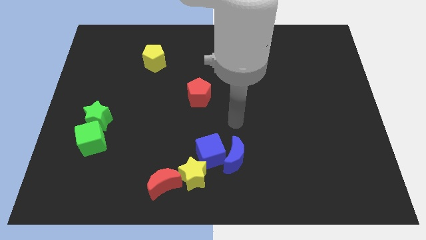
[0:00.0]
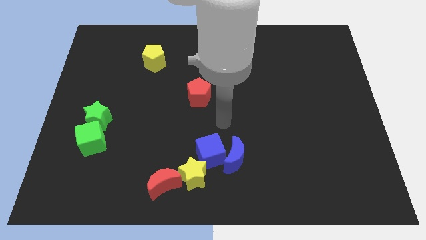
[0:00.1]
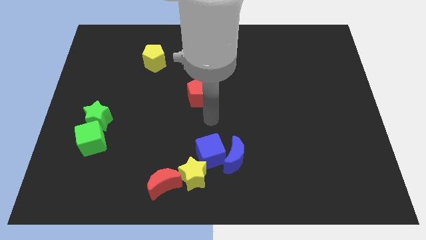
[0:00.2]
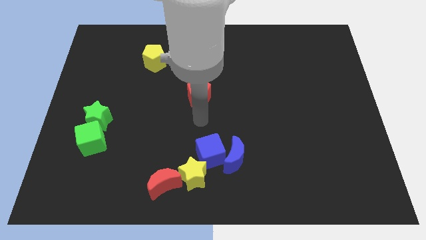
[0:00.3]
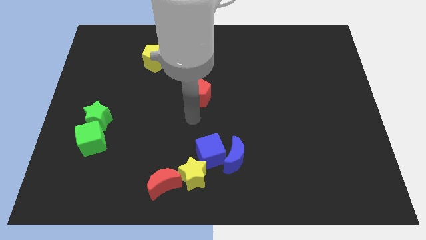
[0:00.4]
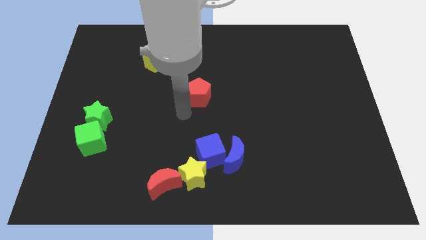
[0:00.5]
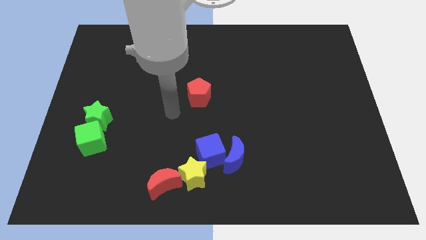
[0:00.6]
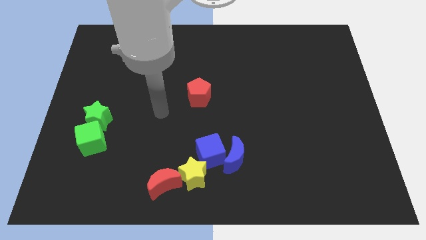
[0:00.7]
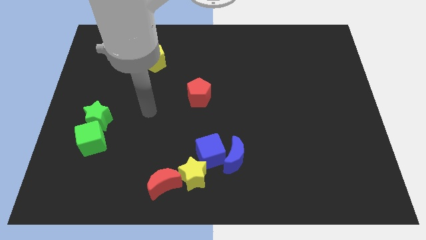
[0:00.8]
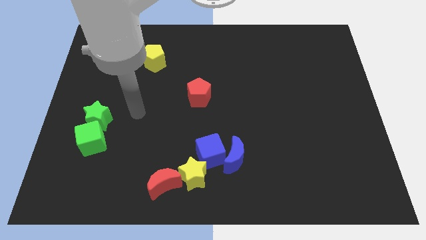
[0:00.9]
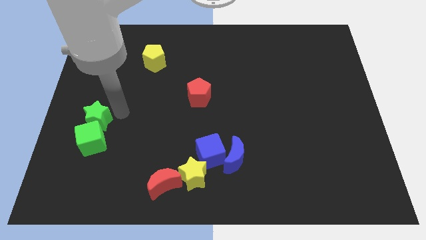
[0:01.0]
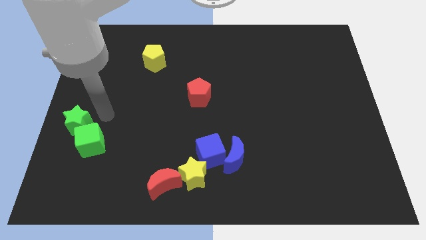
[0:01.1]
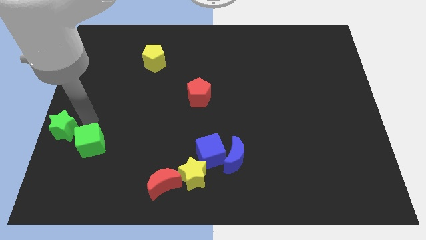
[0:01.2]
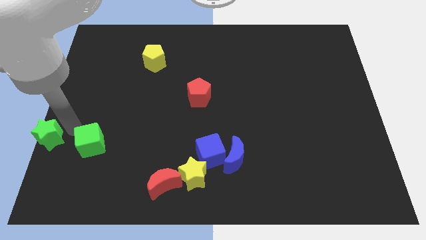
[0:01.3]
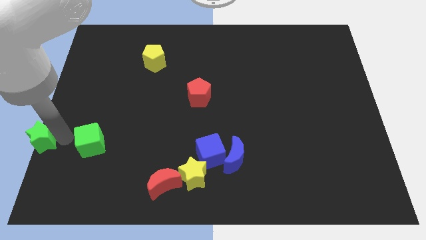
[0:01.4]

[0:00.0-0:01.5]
separate the green cube from the green star

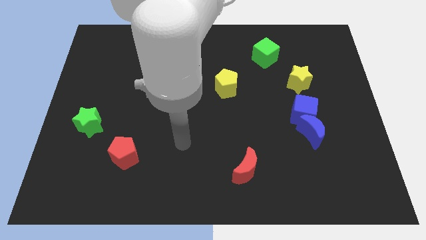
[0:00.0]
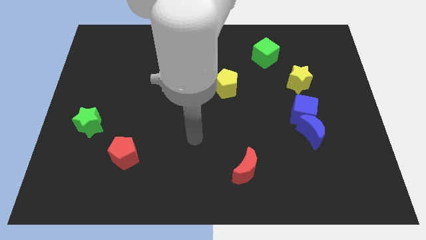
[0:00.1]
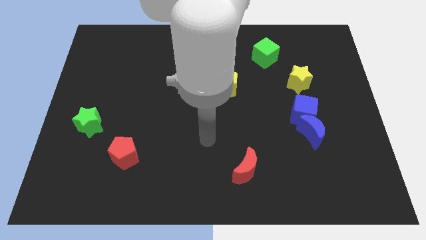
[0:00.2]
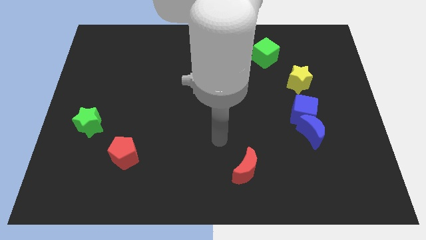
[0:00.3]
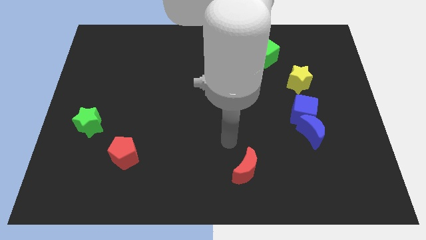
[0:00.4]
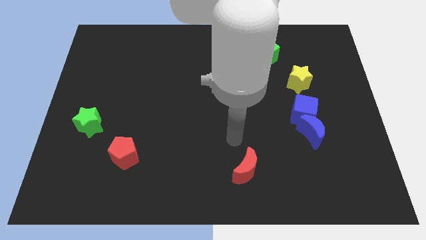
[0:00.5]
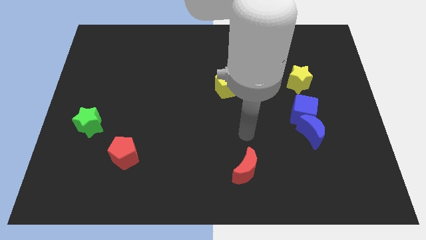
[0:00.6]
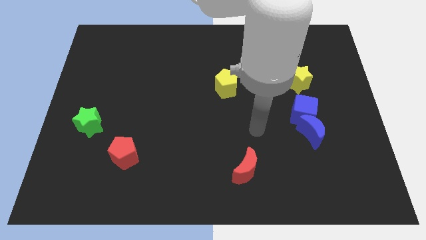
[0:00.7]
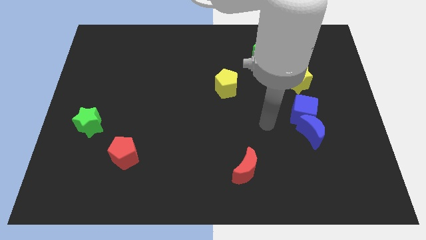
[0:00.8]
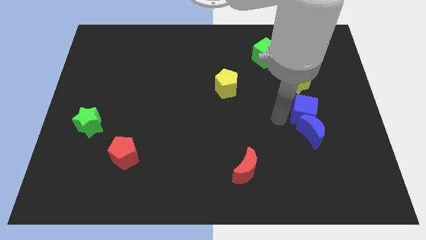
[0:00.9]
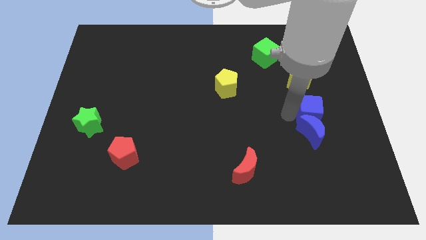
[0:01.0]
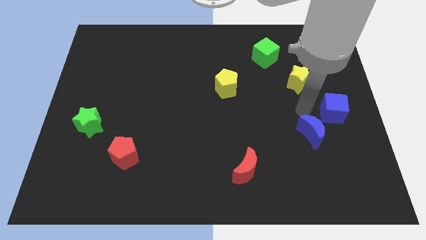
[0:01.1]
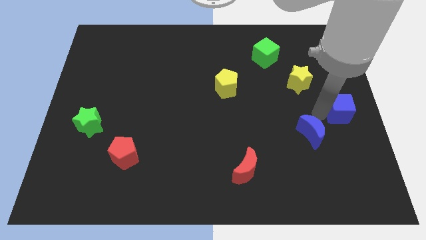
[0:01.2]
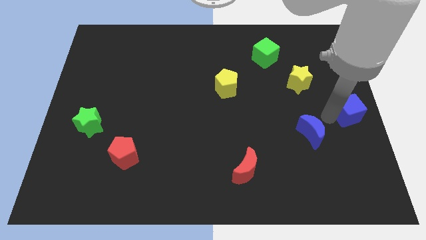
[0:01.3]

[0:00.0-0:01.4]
pull the blue moon apart from the blue cube

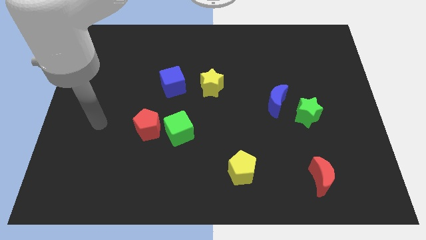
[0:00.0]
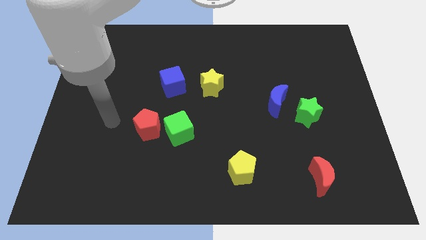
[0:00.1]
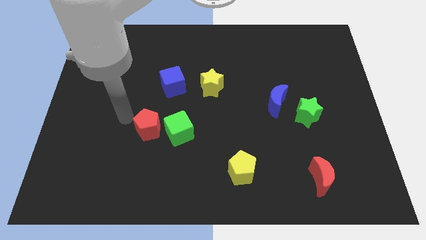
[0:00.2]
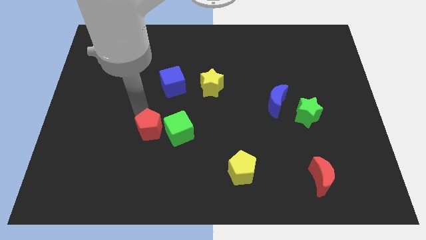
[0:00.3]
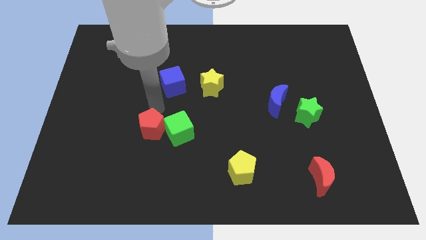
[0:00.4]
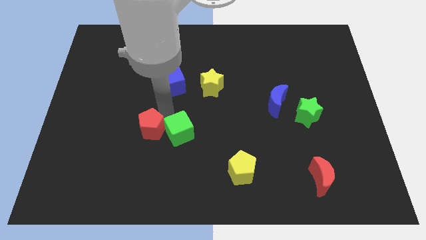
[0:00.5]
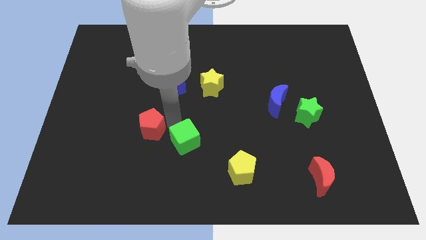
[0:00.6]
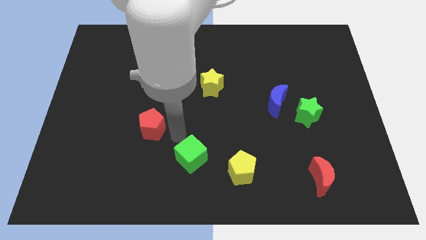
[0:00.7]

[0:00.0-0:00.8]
pull the red pentagon apart from the green cube

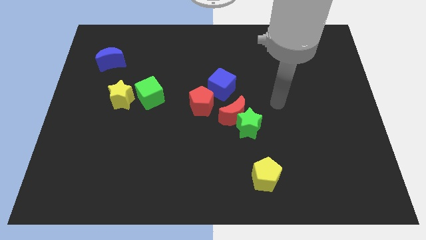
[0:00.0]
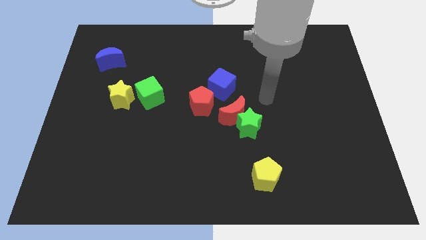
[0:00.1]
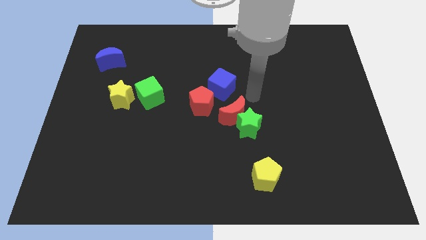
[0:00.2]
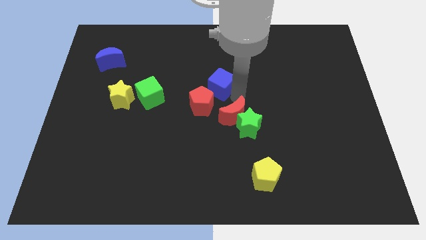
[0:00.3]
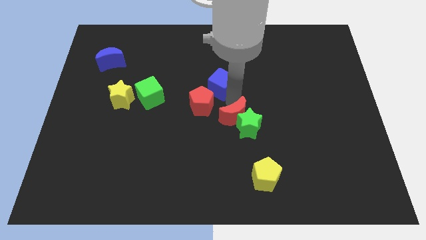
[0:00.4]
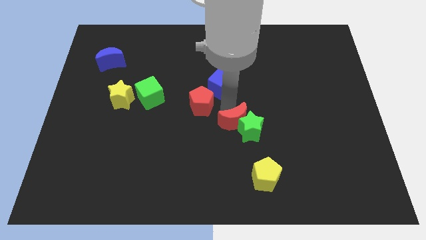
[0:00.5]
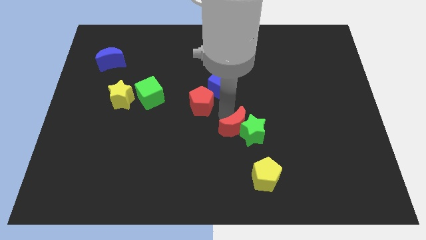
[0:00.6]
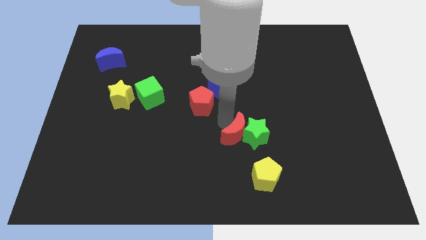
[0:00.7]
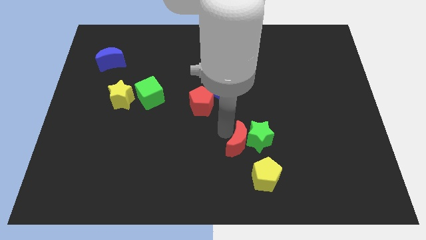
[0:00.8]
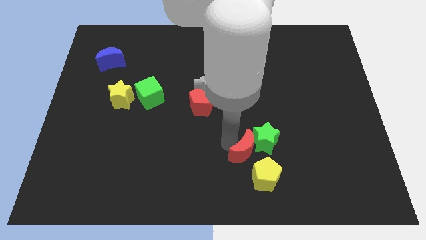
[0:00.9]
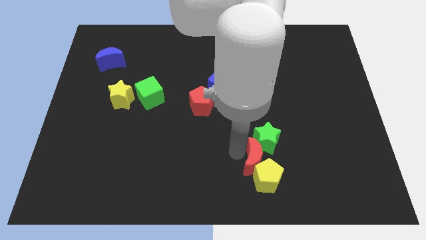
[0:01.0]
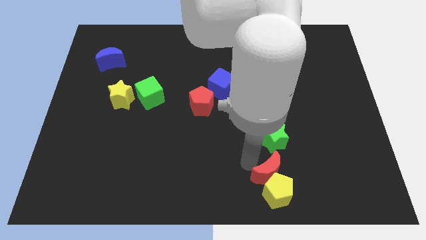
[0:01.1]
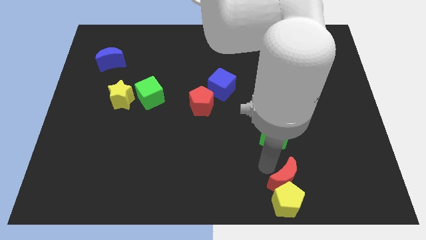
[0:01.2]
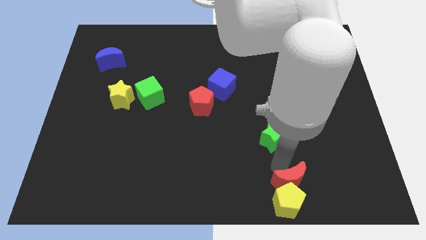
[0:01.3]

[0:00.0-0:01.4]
separate the green star from the red moon

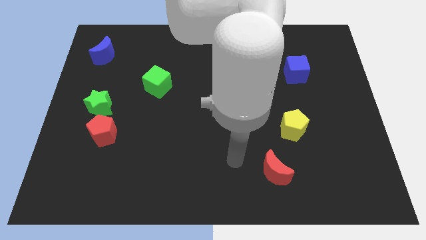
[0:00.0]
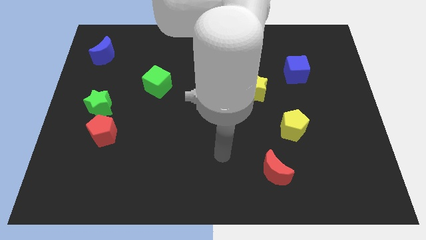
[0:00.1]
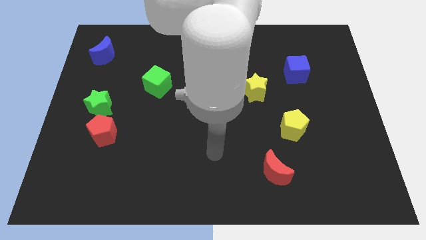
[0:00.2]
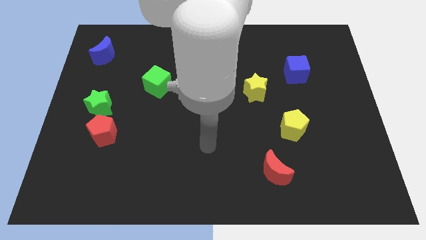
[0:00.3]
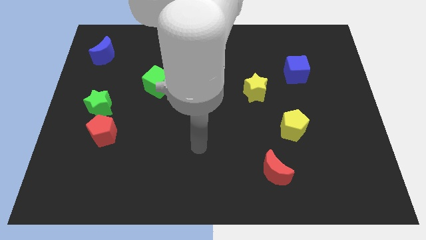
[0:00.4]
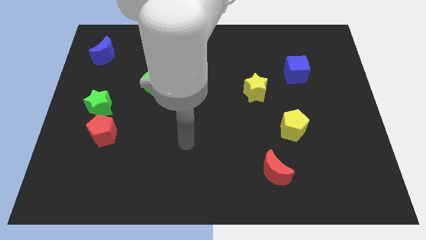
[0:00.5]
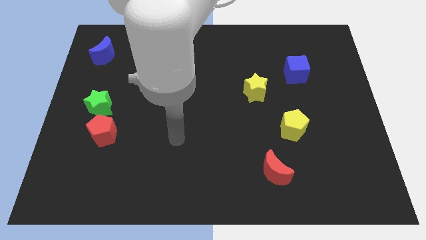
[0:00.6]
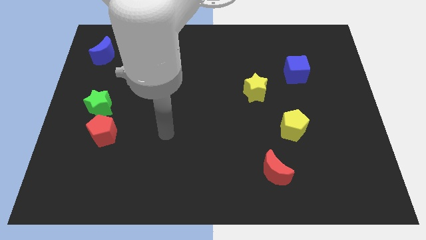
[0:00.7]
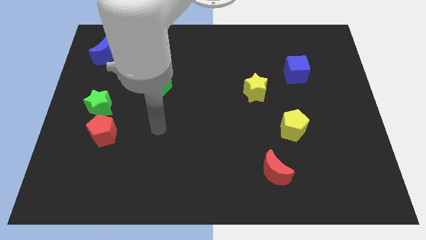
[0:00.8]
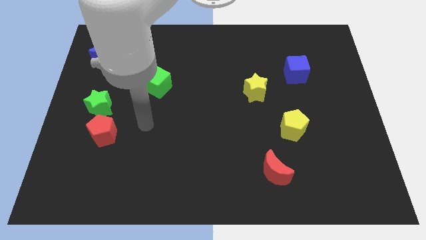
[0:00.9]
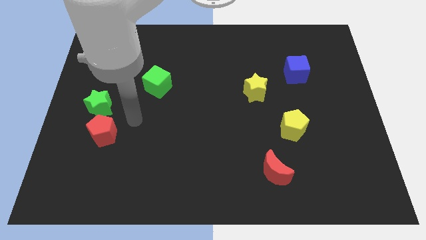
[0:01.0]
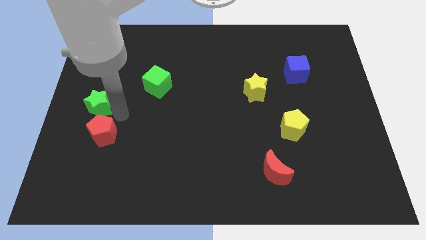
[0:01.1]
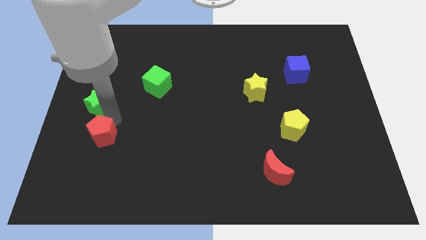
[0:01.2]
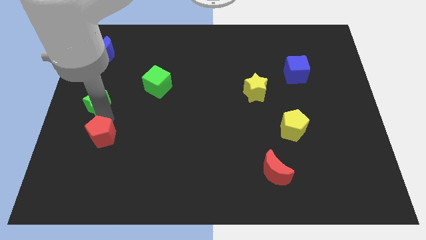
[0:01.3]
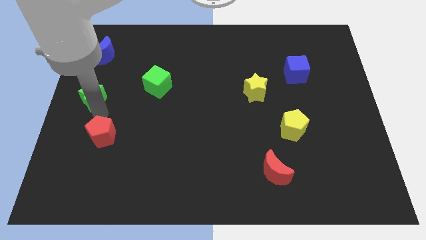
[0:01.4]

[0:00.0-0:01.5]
separate the red pentagon from the green star

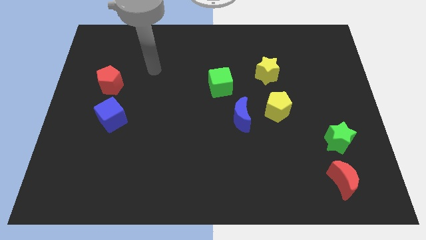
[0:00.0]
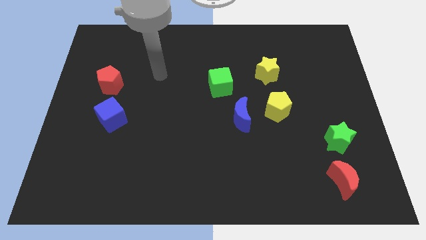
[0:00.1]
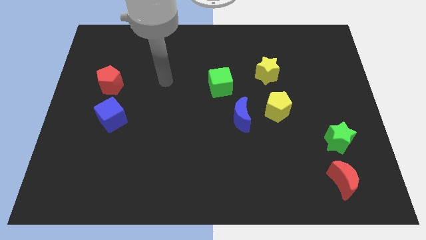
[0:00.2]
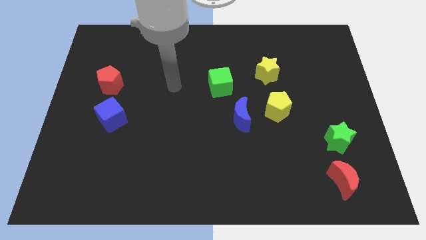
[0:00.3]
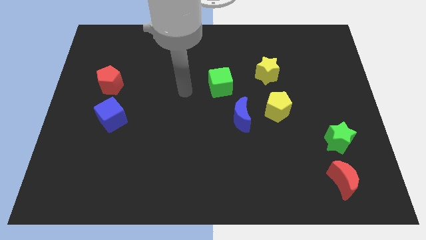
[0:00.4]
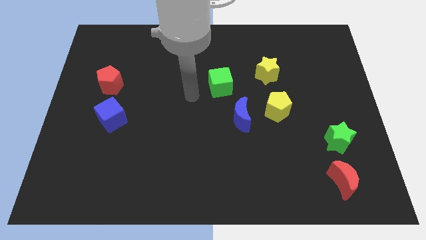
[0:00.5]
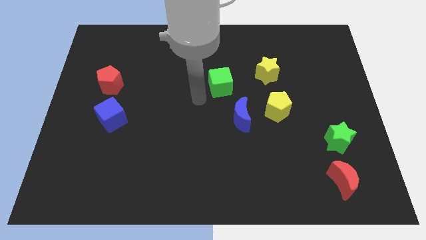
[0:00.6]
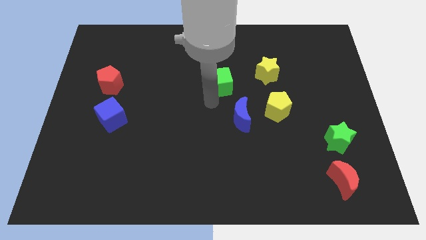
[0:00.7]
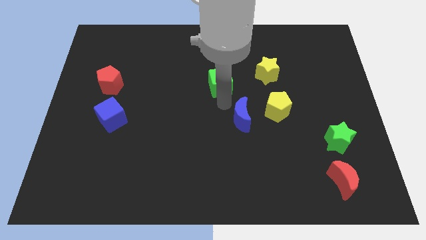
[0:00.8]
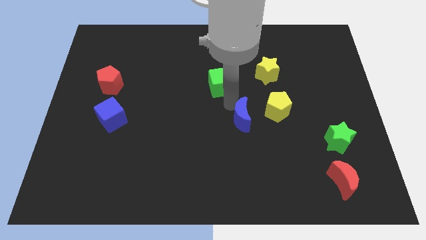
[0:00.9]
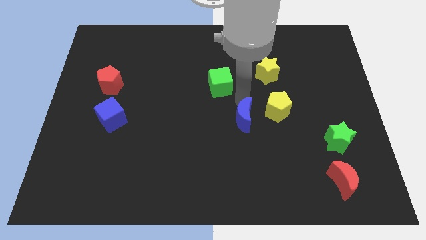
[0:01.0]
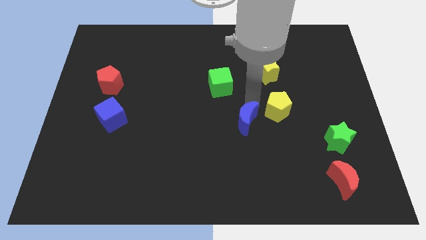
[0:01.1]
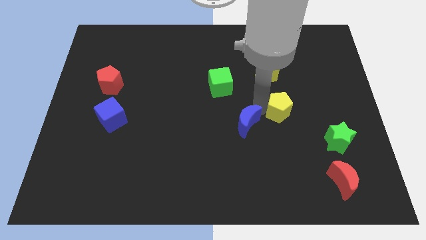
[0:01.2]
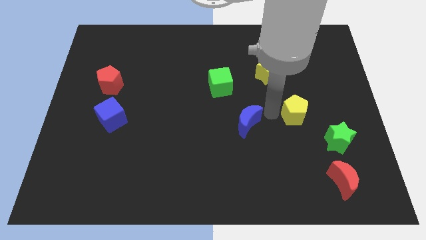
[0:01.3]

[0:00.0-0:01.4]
move the blue moon away from the yellow pentagon

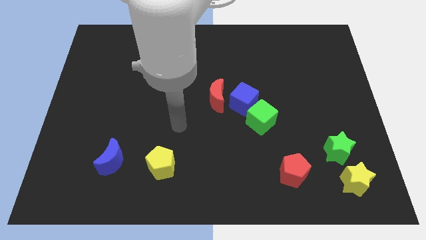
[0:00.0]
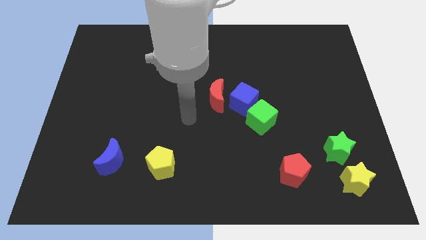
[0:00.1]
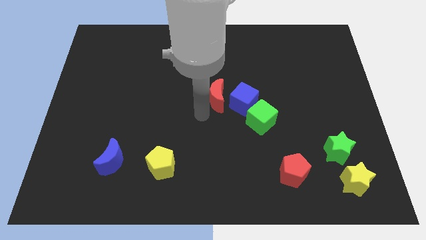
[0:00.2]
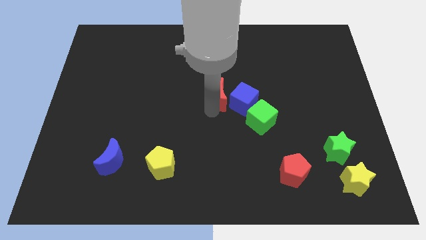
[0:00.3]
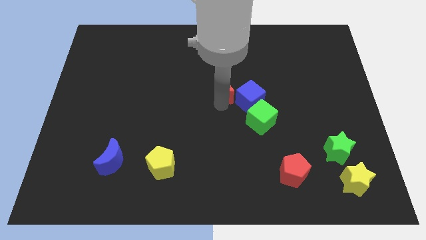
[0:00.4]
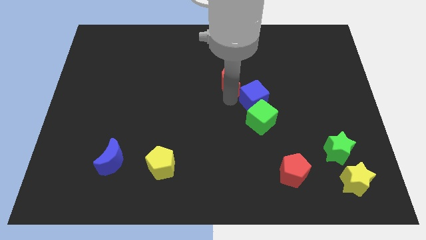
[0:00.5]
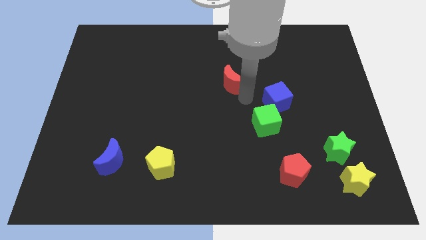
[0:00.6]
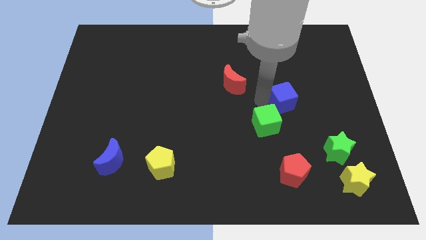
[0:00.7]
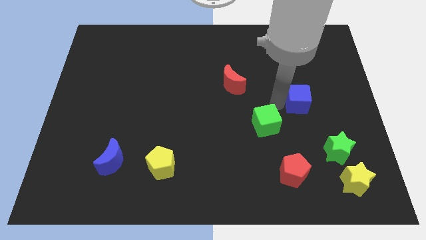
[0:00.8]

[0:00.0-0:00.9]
move the green cube away from the blue cube

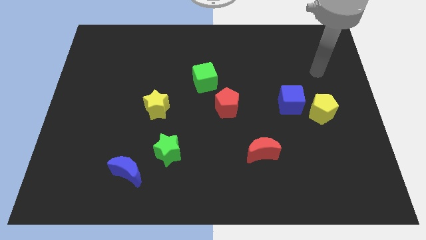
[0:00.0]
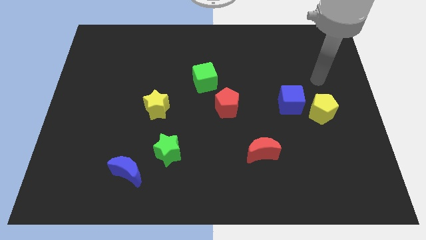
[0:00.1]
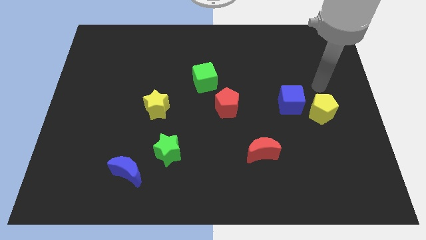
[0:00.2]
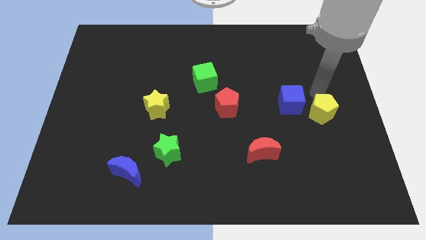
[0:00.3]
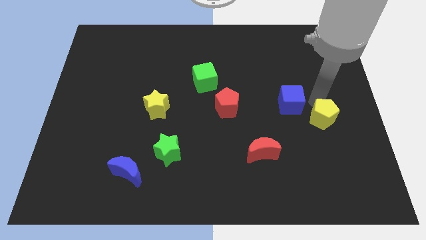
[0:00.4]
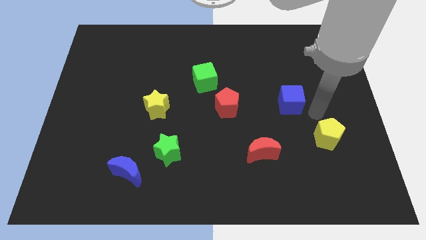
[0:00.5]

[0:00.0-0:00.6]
separate the blue cube from the yellow pentagon
